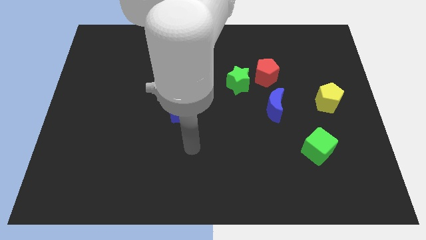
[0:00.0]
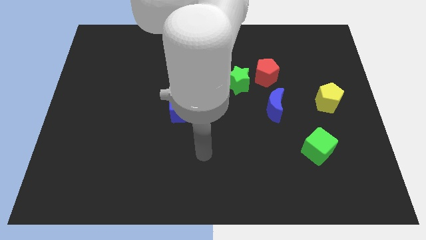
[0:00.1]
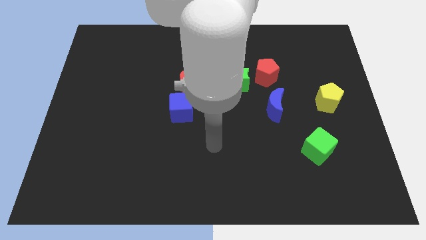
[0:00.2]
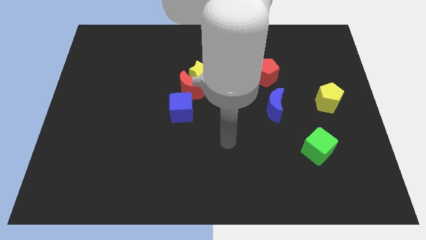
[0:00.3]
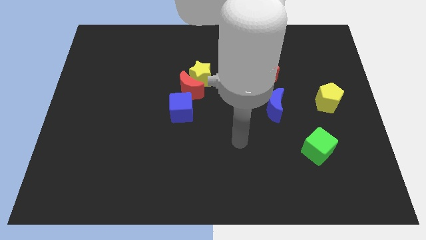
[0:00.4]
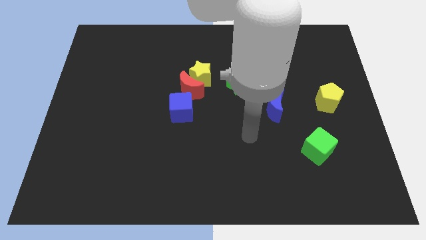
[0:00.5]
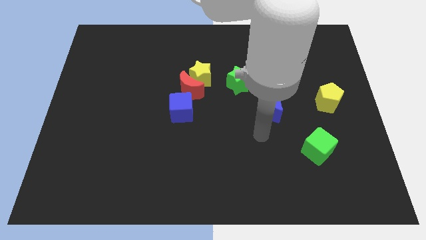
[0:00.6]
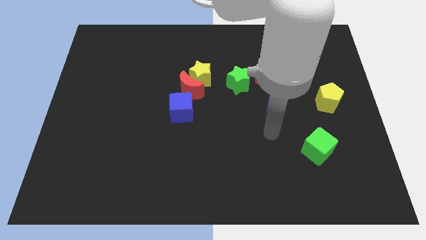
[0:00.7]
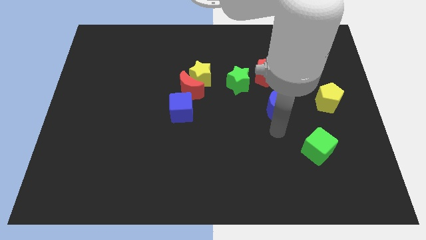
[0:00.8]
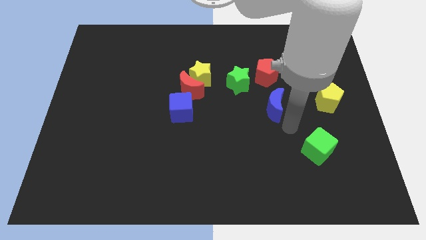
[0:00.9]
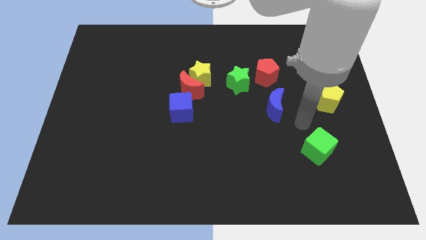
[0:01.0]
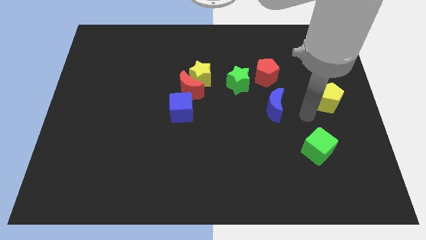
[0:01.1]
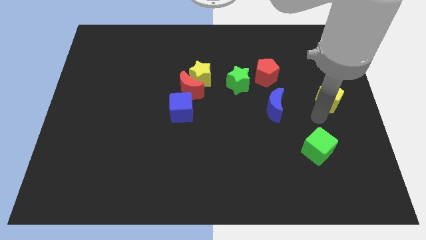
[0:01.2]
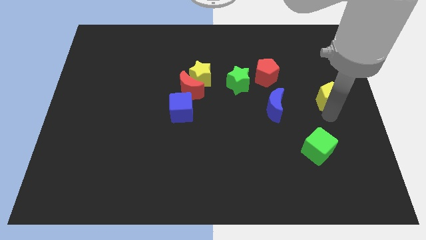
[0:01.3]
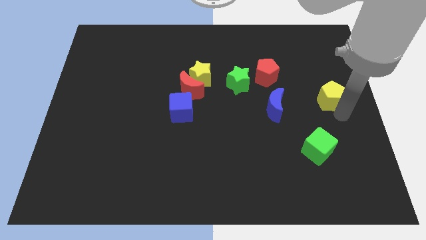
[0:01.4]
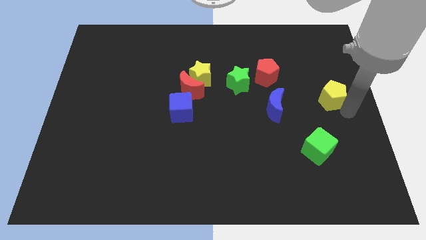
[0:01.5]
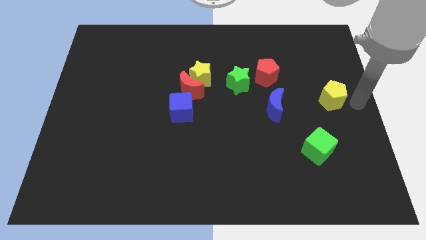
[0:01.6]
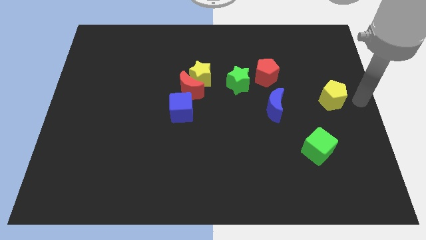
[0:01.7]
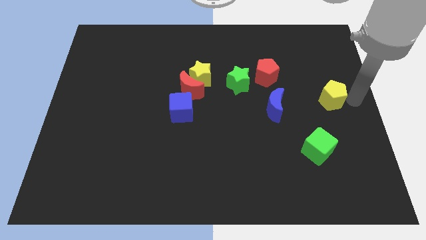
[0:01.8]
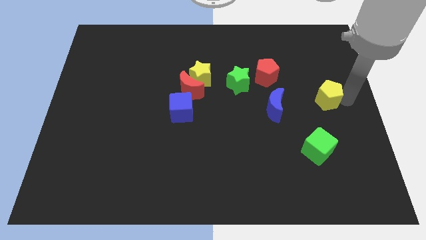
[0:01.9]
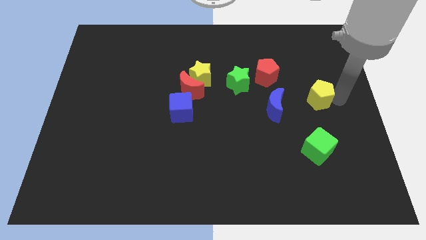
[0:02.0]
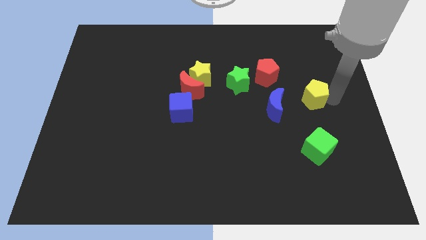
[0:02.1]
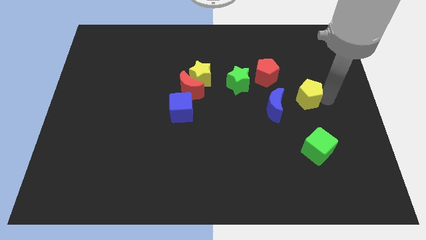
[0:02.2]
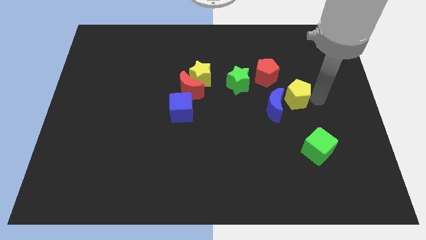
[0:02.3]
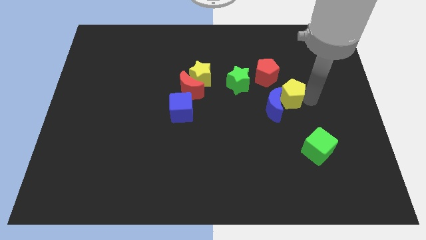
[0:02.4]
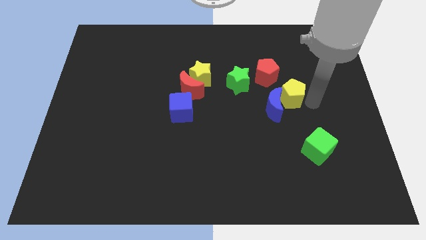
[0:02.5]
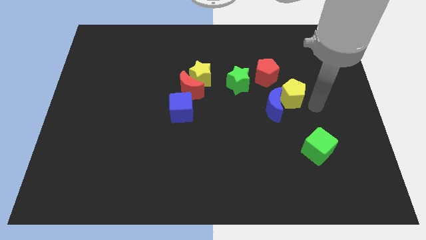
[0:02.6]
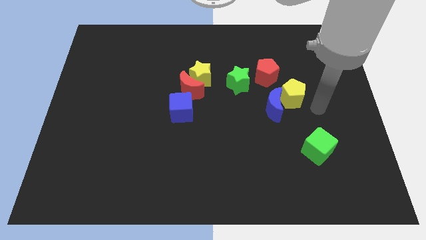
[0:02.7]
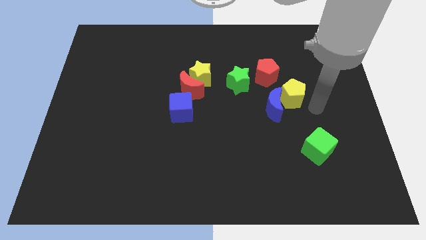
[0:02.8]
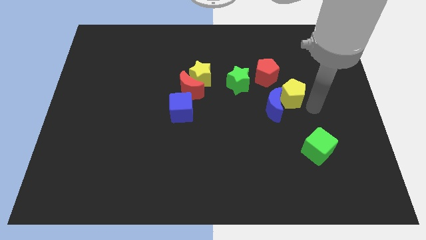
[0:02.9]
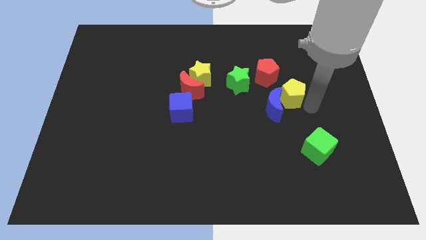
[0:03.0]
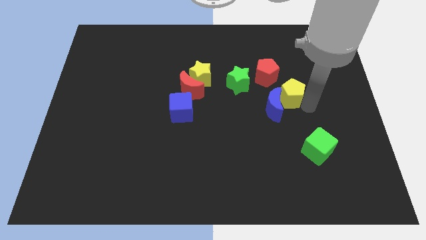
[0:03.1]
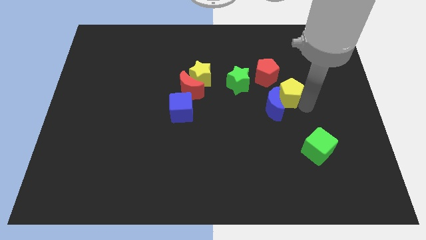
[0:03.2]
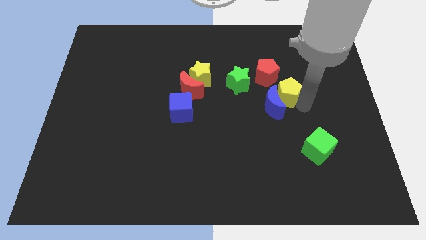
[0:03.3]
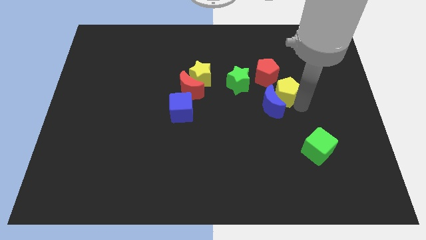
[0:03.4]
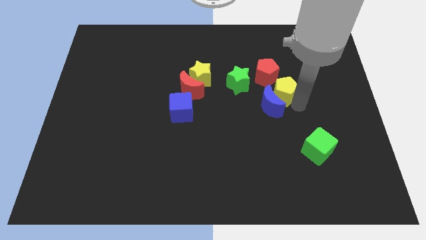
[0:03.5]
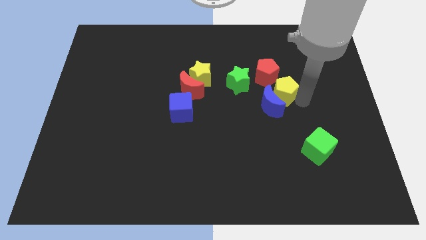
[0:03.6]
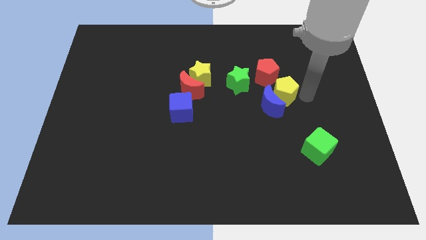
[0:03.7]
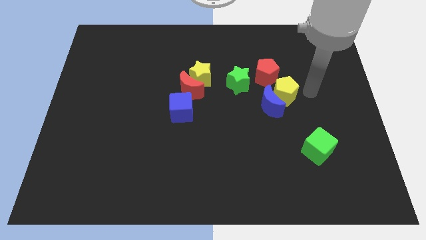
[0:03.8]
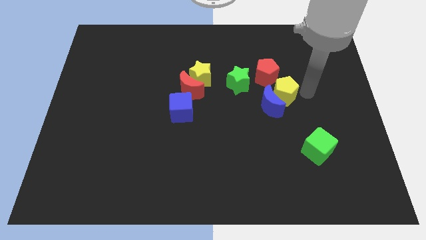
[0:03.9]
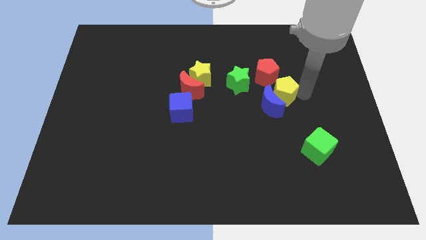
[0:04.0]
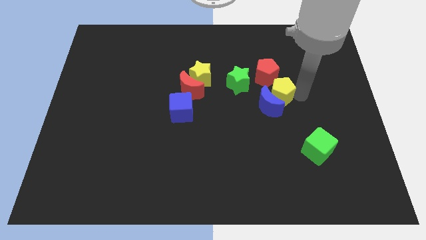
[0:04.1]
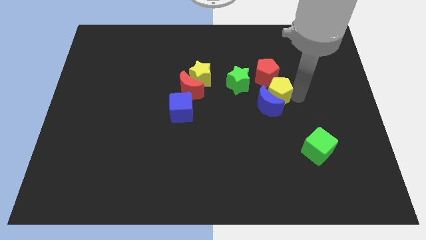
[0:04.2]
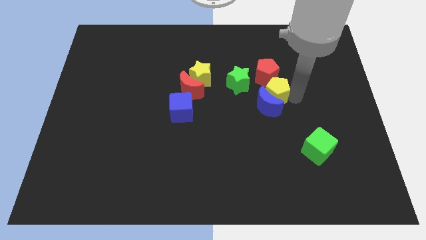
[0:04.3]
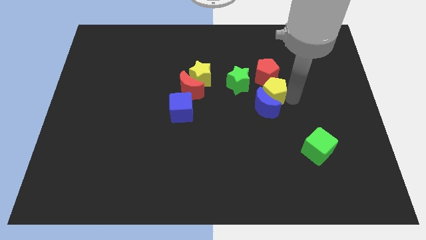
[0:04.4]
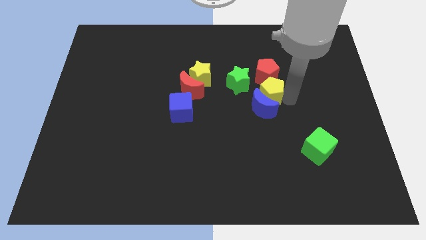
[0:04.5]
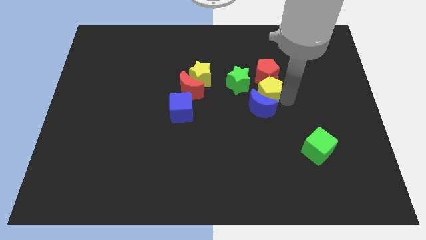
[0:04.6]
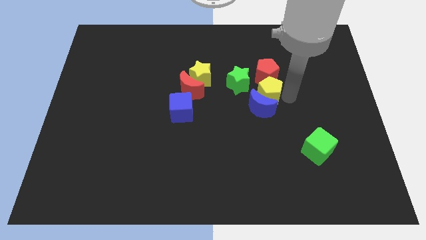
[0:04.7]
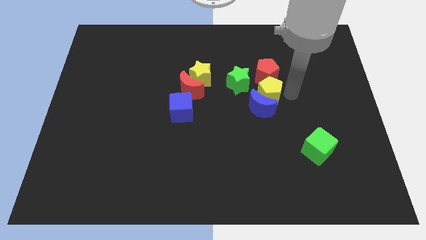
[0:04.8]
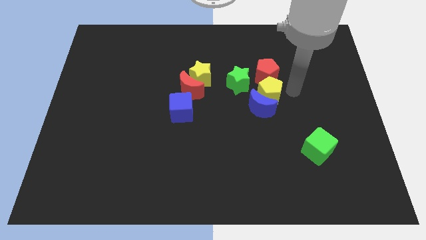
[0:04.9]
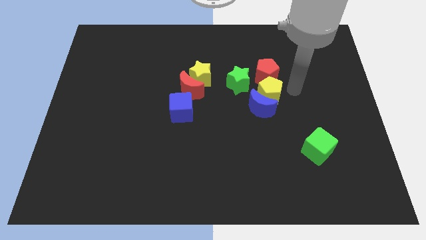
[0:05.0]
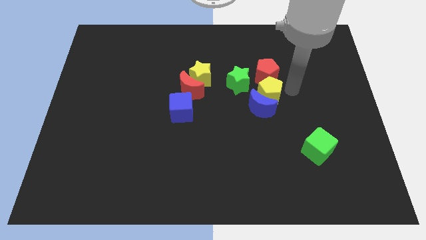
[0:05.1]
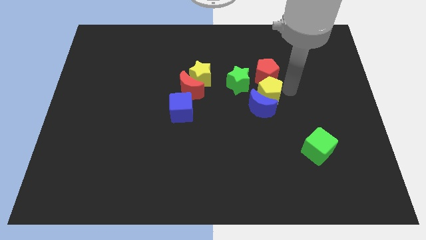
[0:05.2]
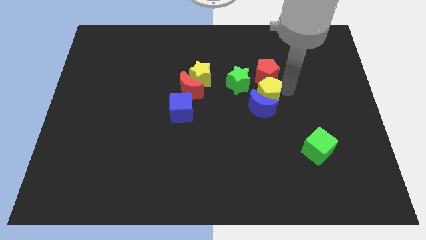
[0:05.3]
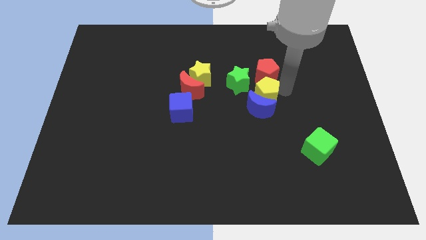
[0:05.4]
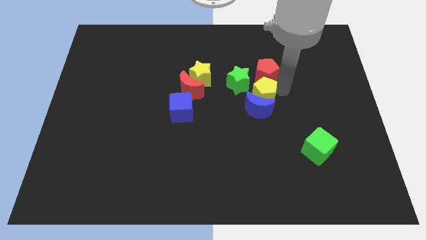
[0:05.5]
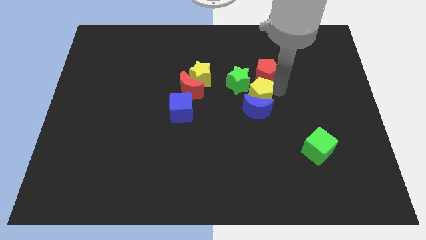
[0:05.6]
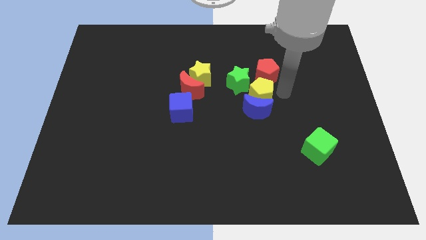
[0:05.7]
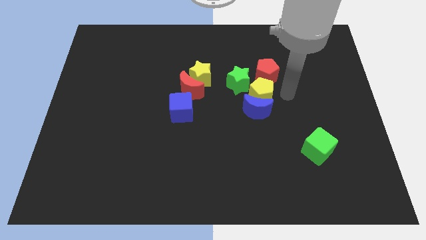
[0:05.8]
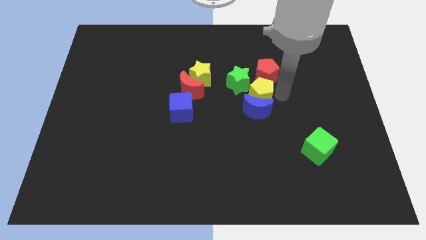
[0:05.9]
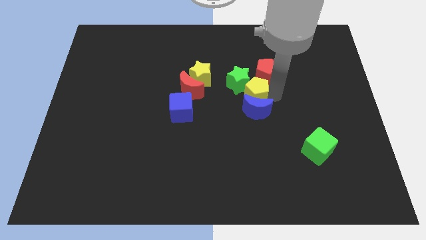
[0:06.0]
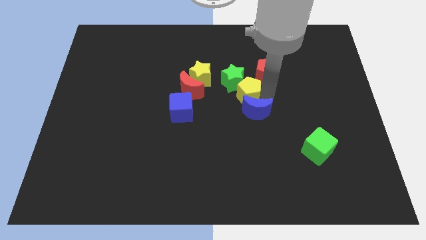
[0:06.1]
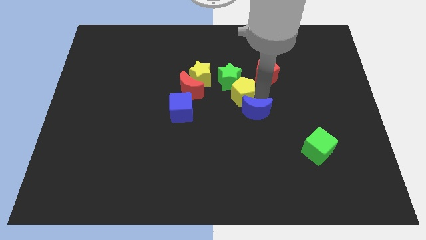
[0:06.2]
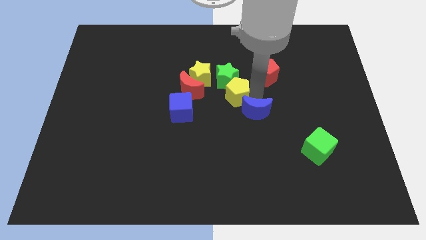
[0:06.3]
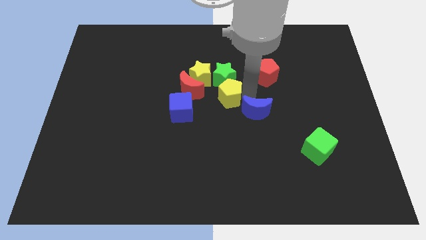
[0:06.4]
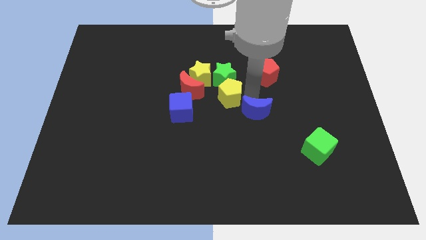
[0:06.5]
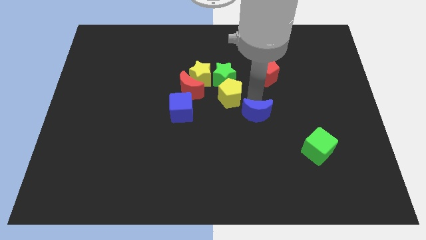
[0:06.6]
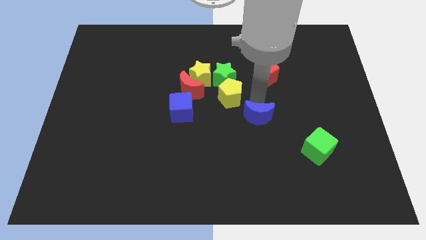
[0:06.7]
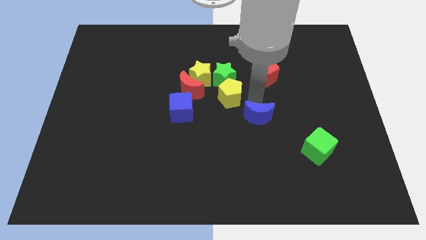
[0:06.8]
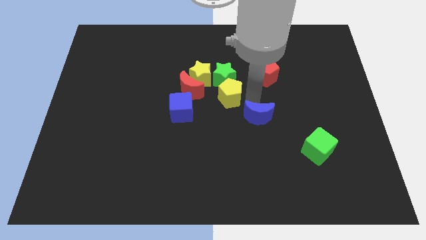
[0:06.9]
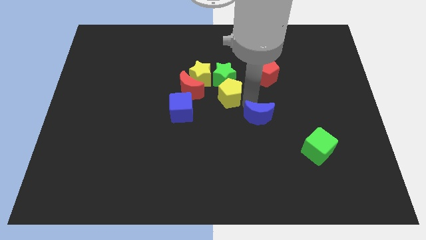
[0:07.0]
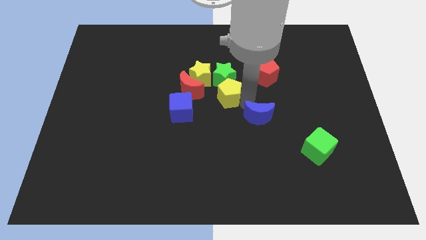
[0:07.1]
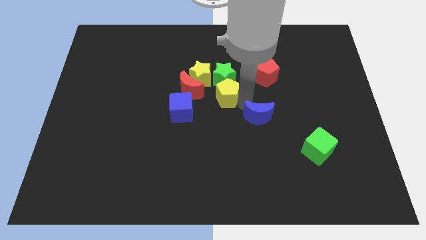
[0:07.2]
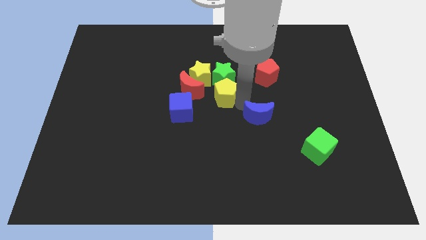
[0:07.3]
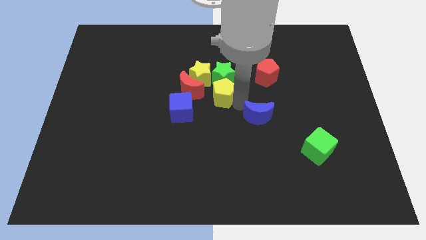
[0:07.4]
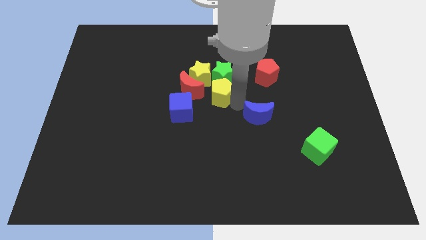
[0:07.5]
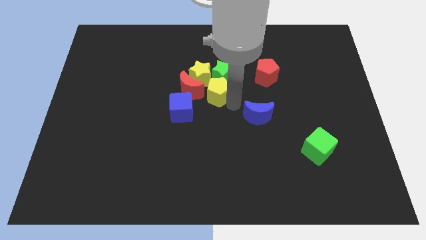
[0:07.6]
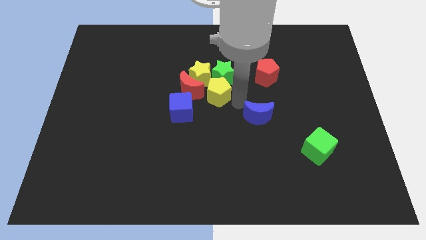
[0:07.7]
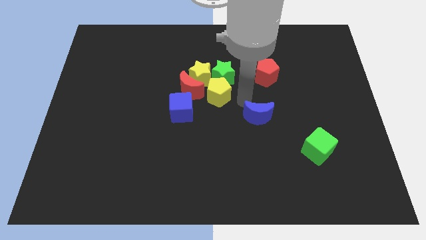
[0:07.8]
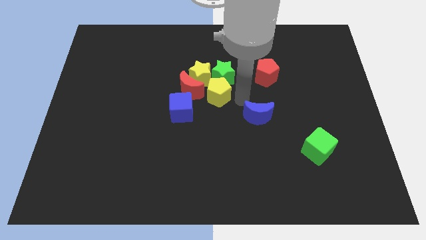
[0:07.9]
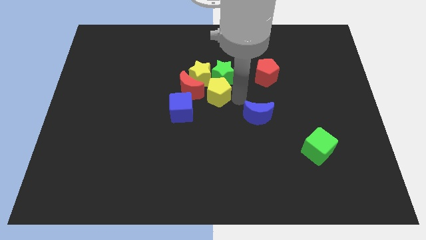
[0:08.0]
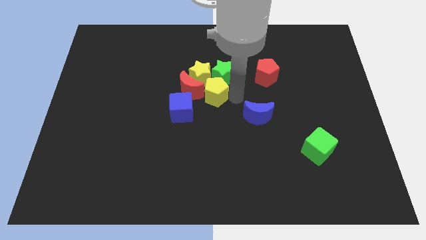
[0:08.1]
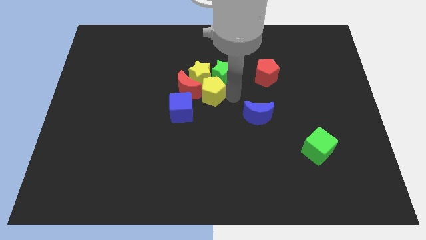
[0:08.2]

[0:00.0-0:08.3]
push the yellow pentagon next to the red moon
